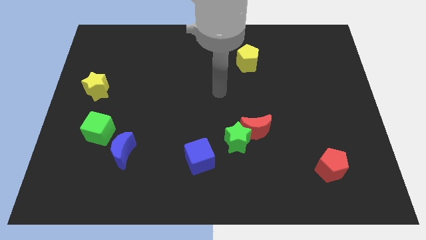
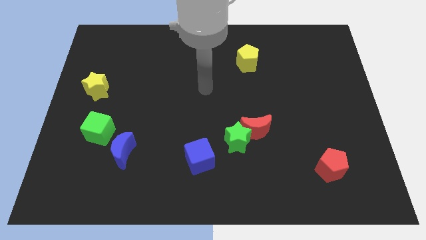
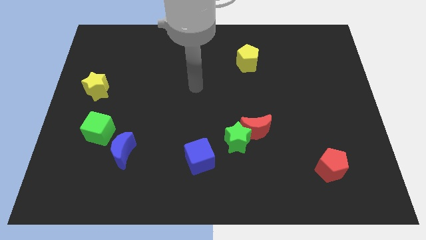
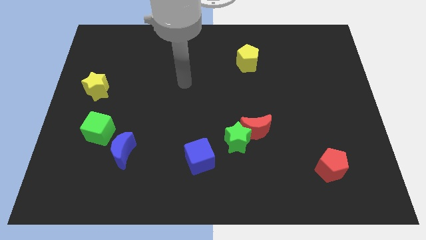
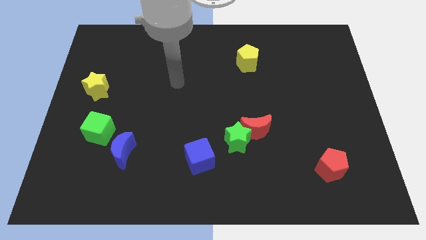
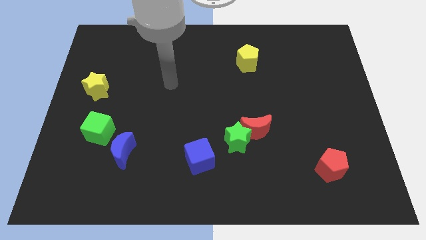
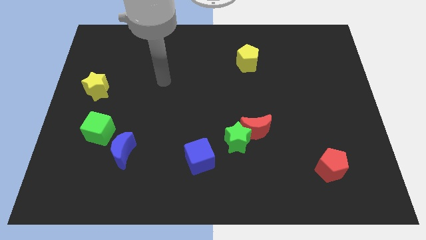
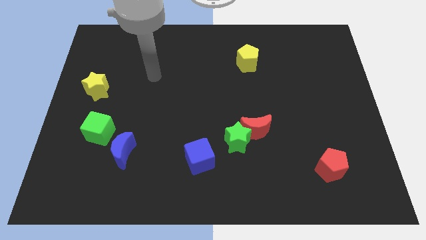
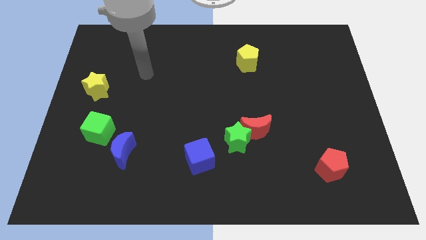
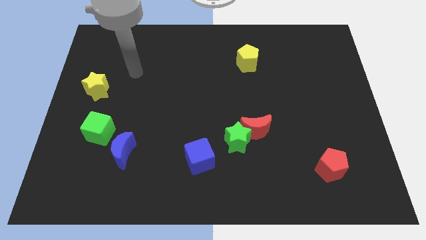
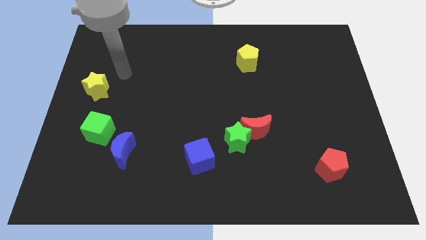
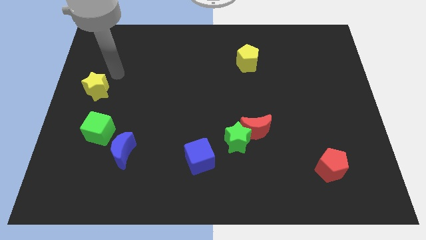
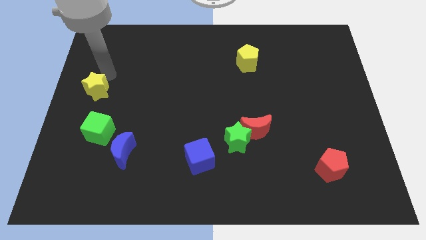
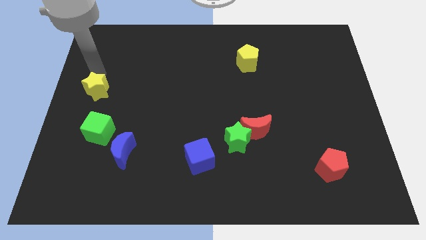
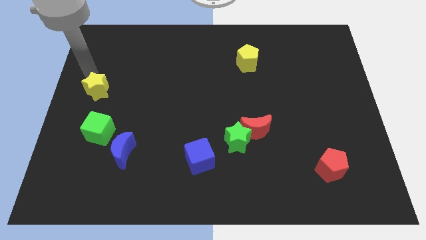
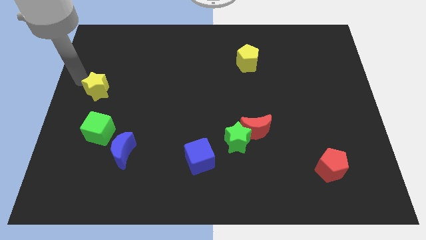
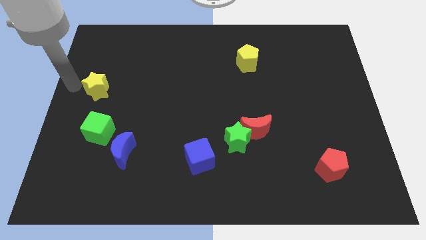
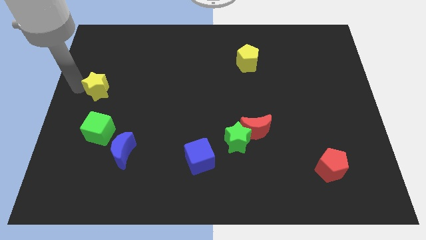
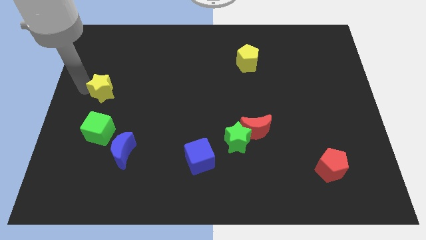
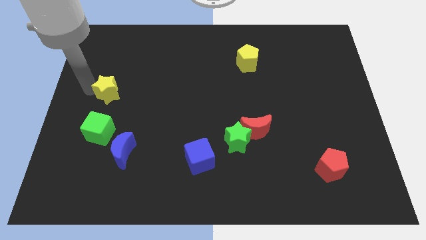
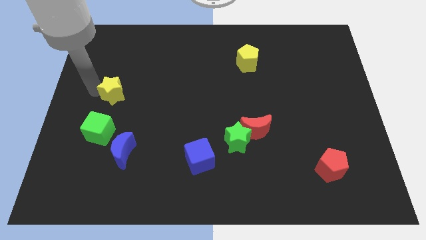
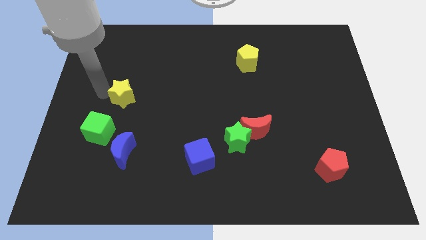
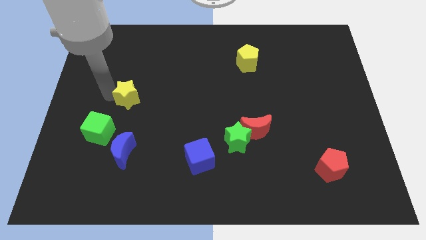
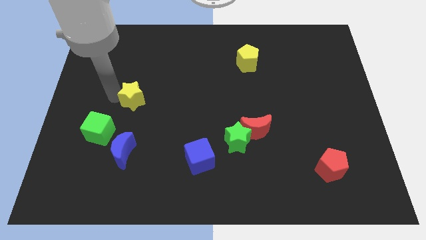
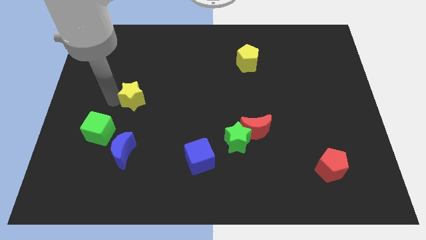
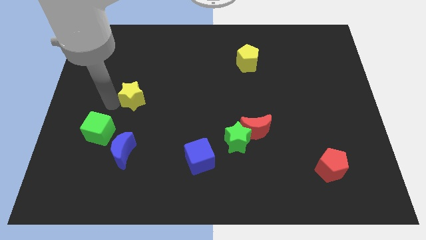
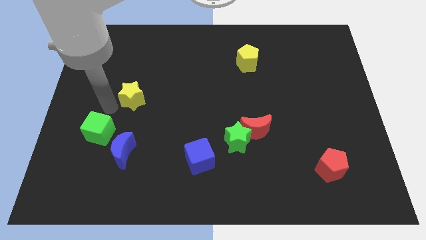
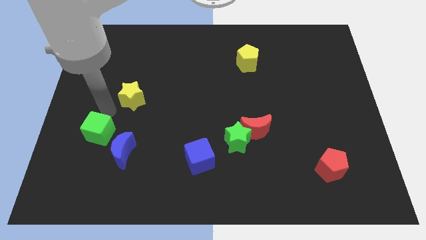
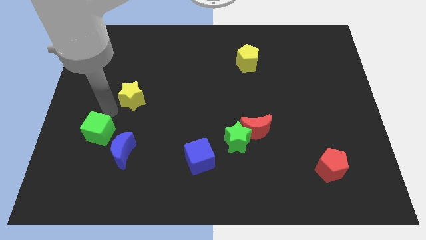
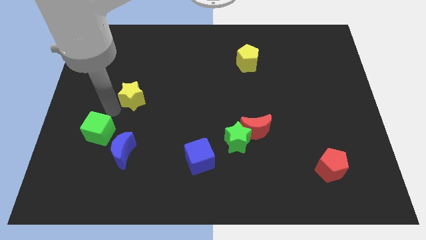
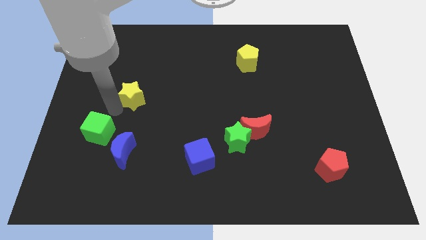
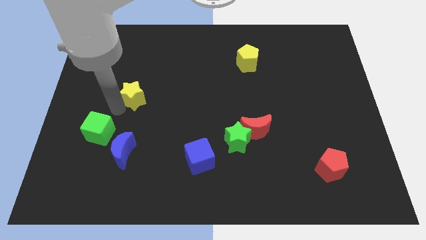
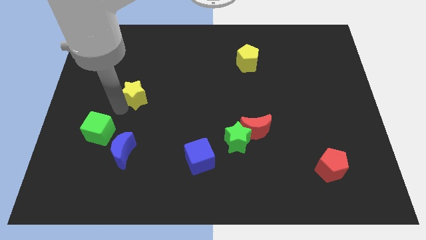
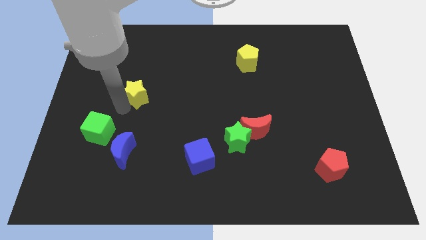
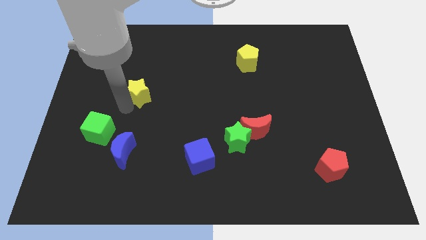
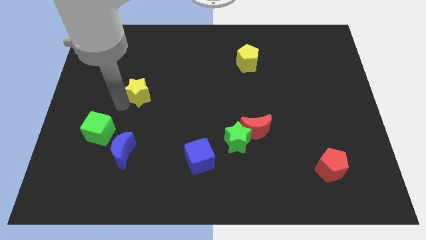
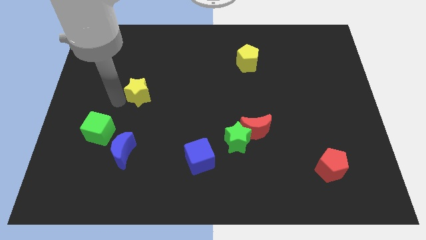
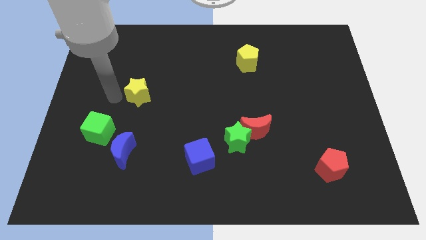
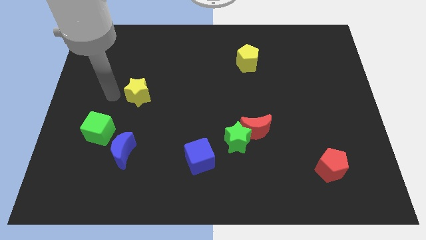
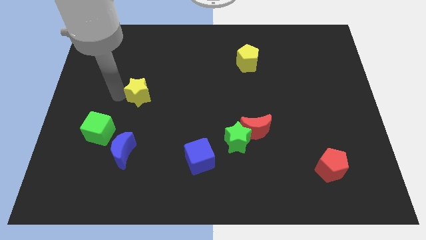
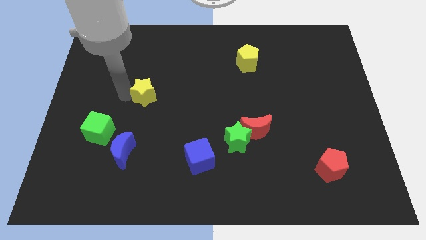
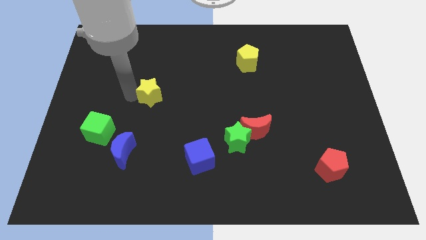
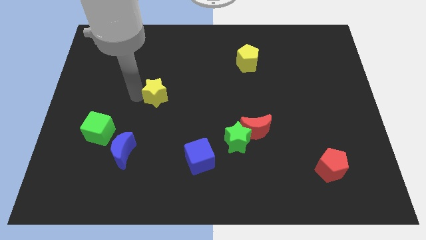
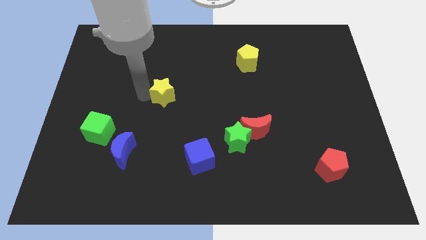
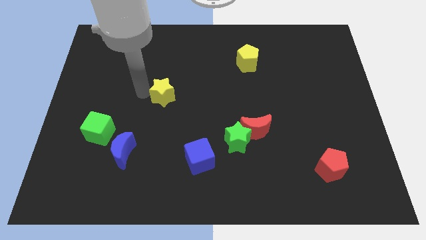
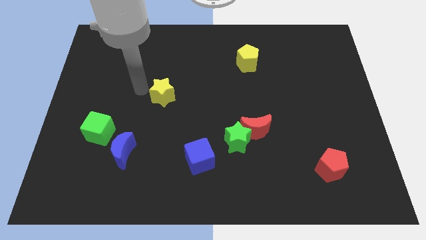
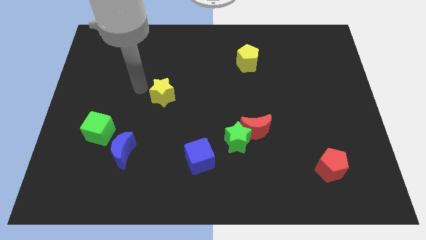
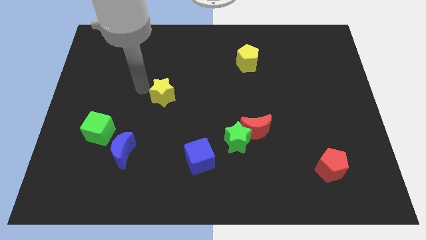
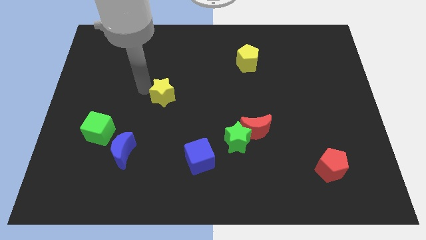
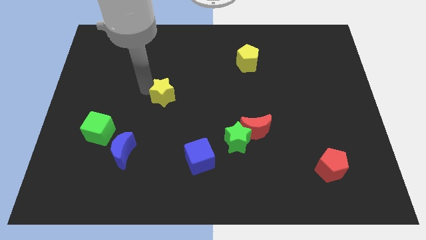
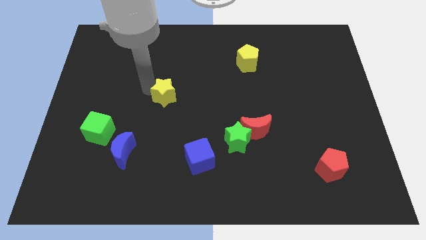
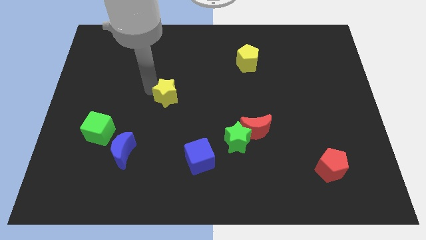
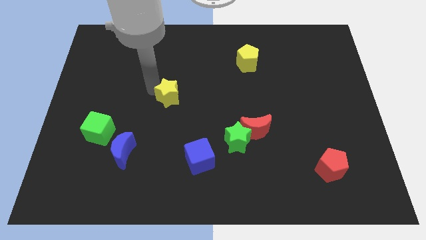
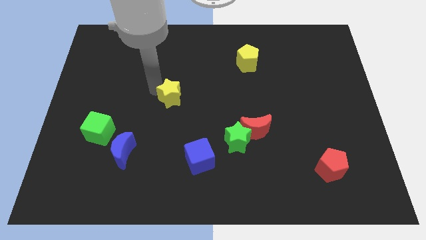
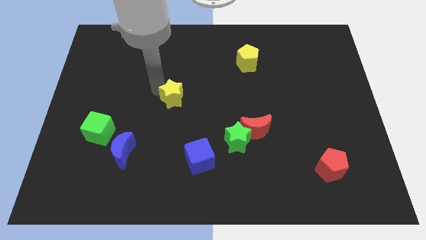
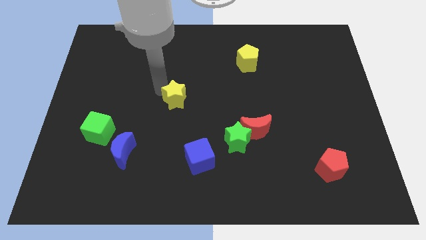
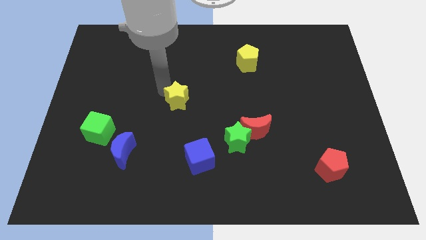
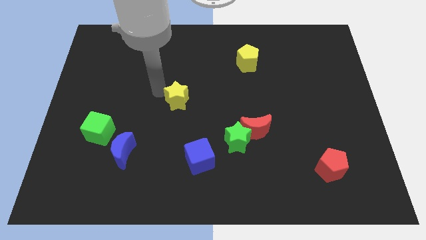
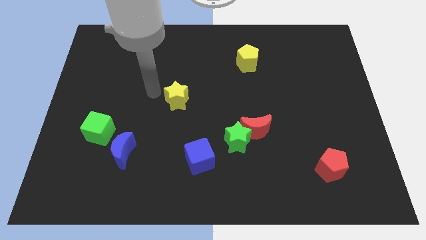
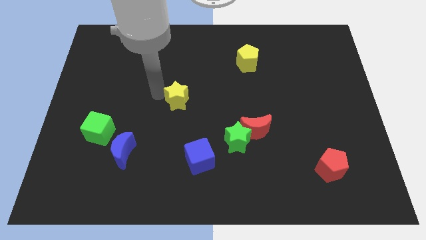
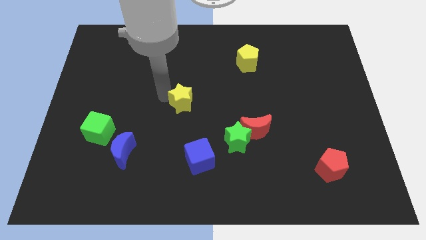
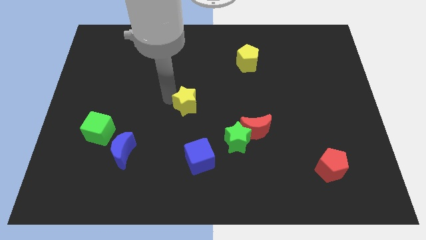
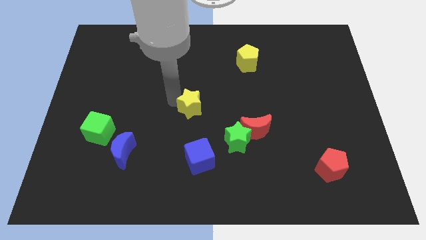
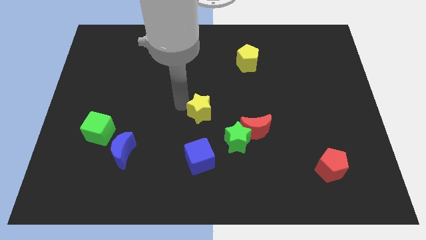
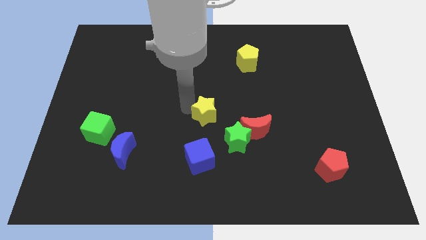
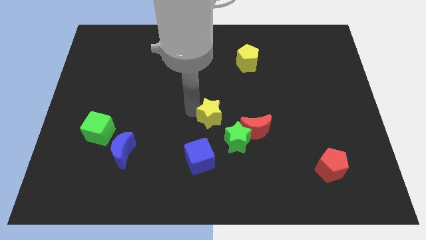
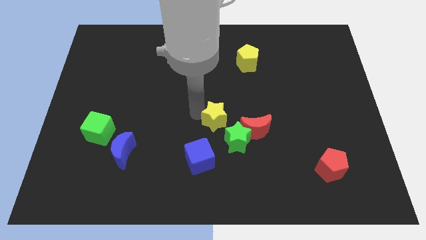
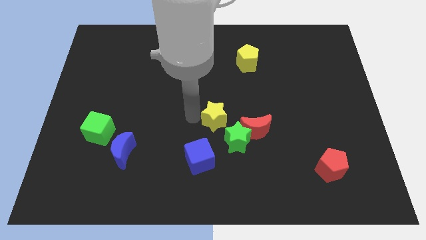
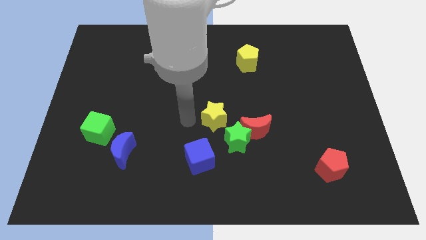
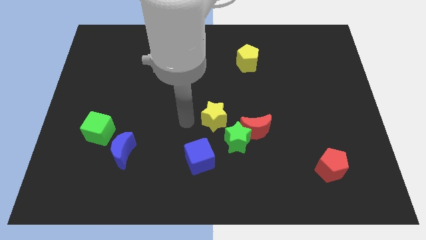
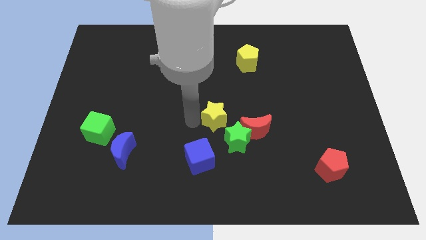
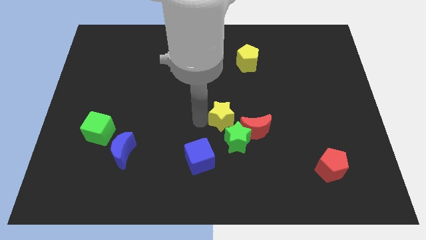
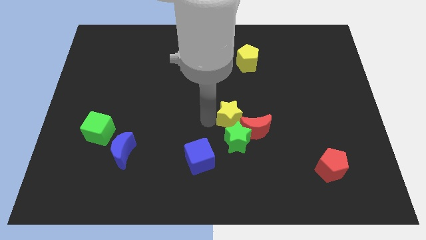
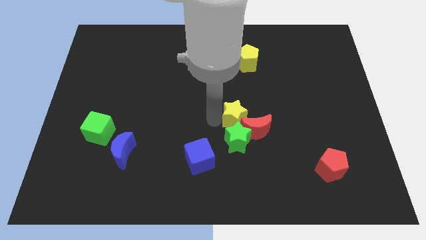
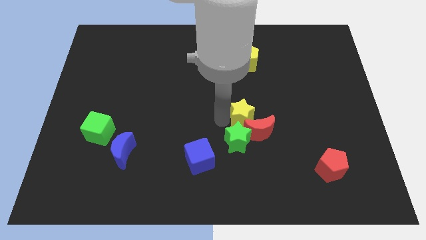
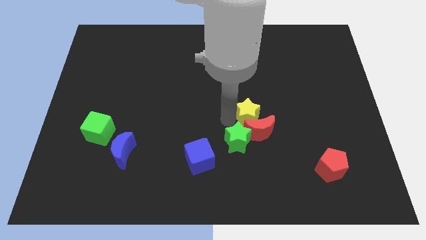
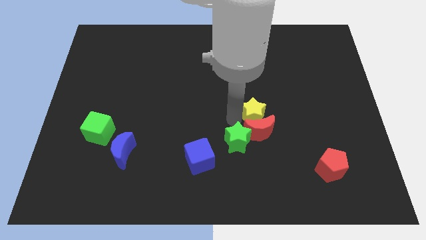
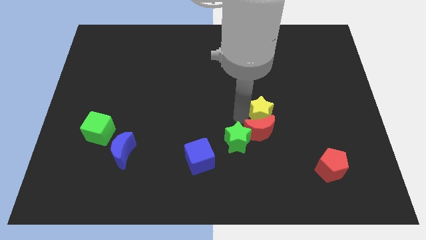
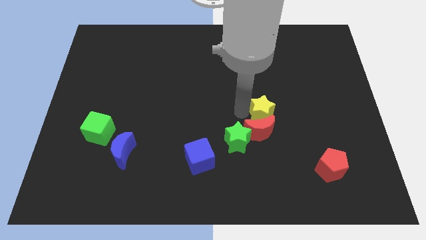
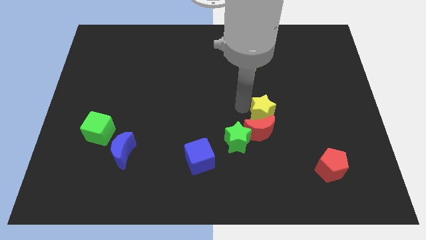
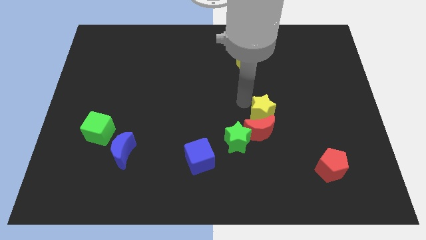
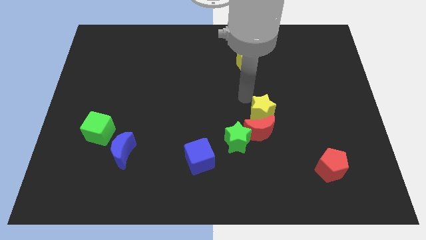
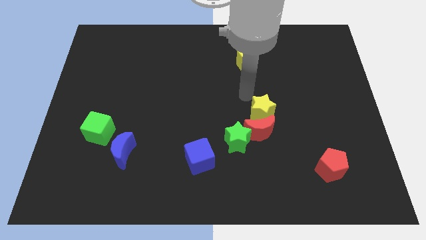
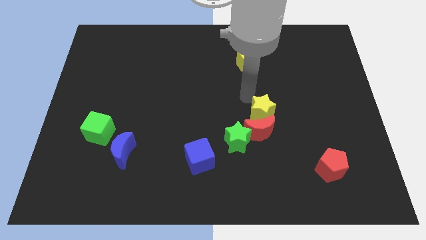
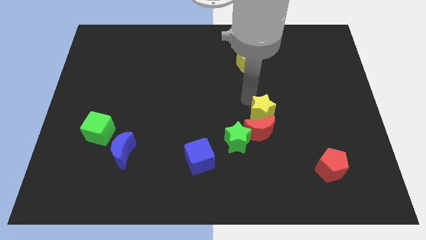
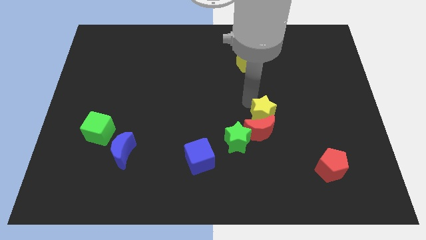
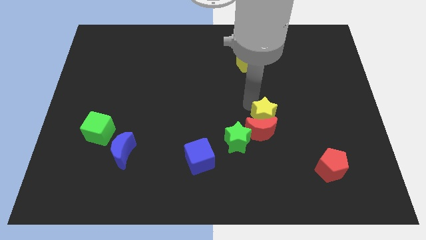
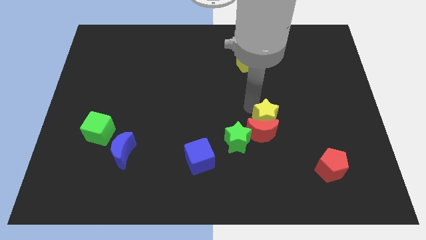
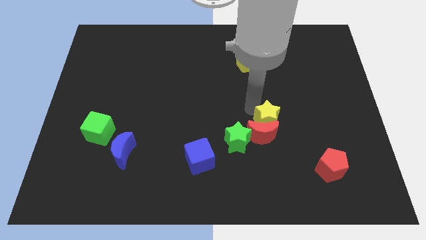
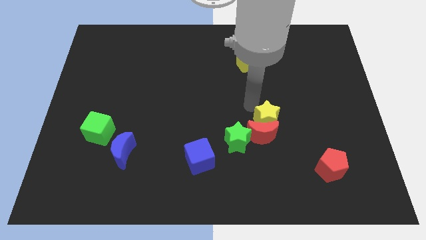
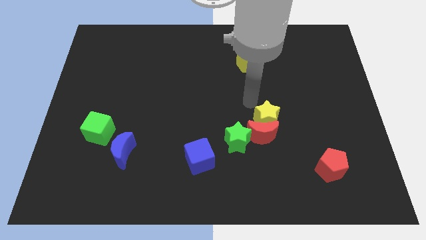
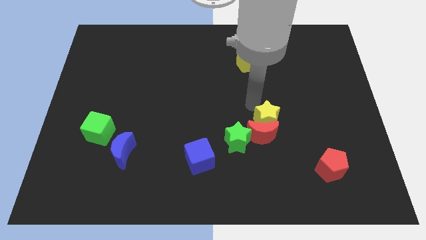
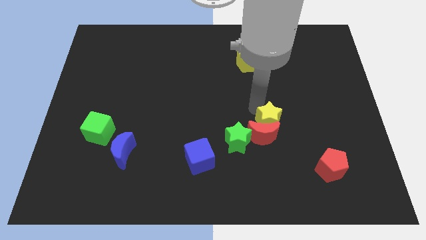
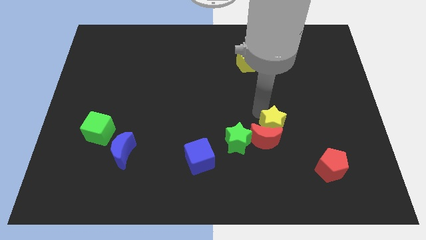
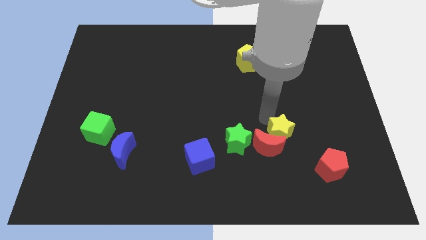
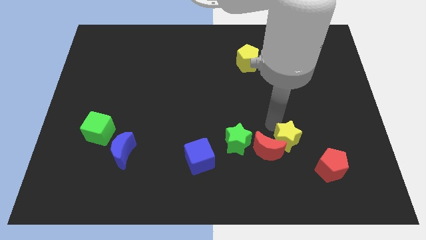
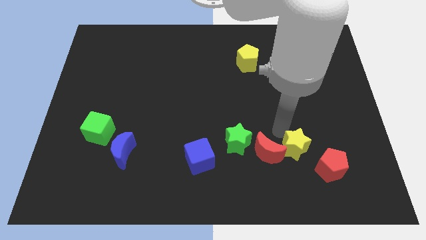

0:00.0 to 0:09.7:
slide the yellow star to the bottom right of the red moon
